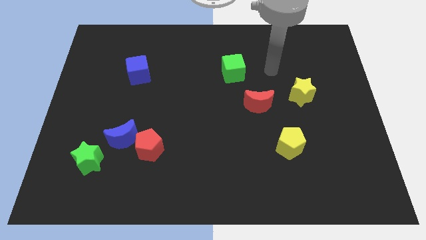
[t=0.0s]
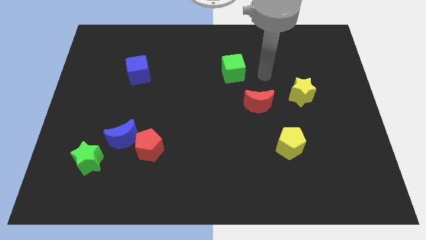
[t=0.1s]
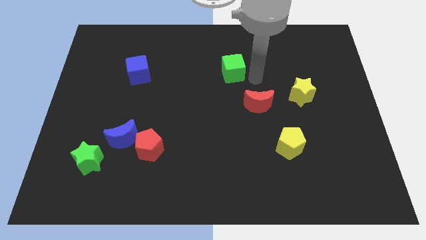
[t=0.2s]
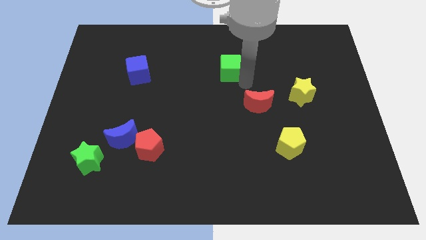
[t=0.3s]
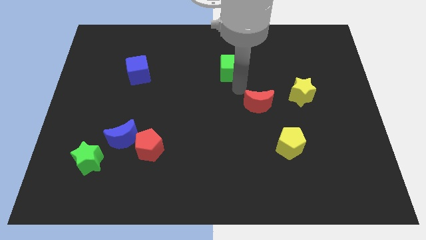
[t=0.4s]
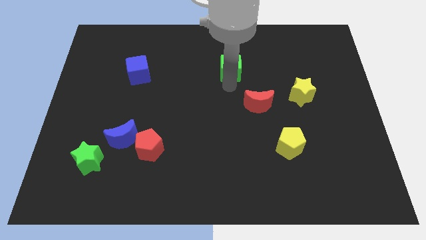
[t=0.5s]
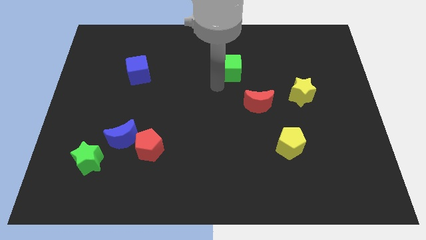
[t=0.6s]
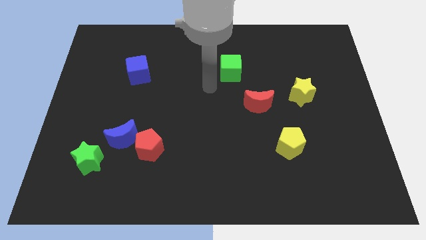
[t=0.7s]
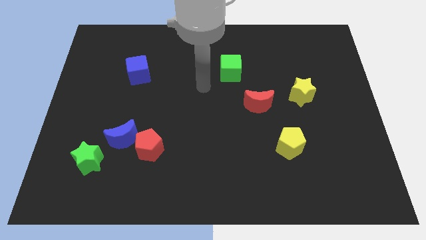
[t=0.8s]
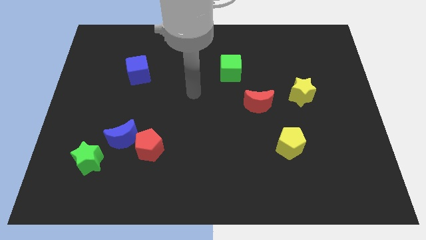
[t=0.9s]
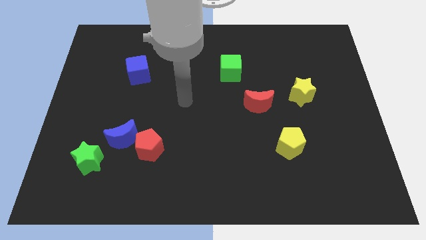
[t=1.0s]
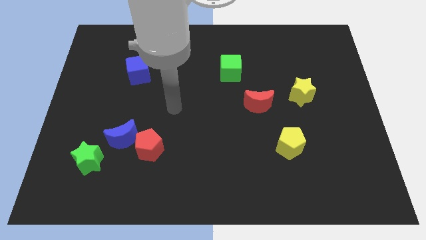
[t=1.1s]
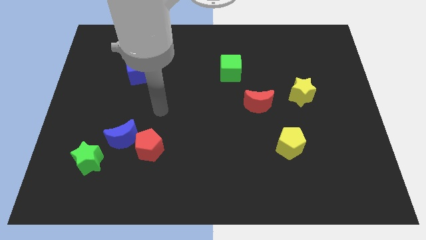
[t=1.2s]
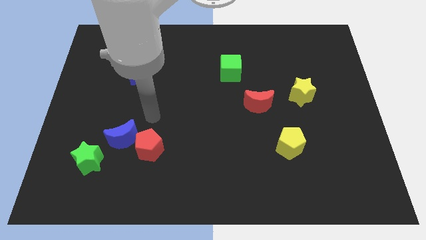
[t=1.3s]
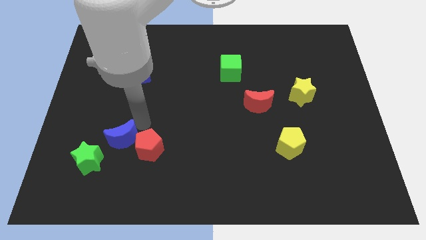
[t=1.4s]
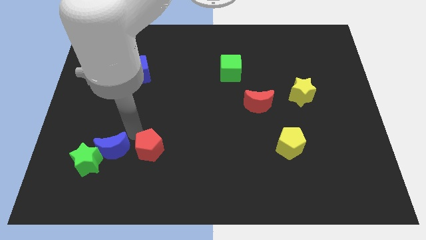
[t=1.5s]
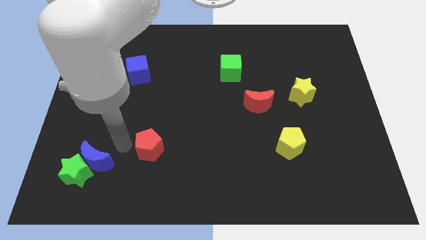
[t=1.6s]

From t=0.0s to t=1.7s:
pull the red pentagon apart from the blue moon

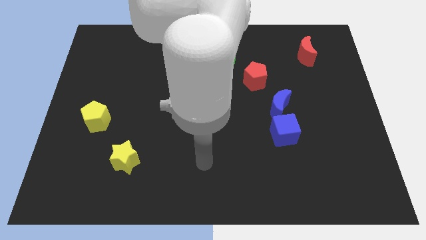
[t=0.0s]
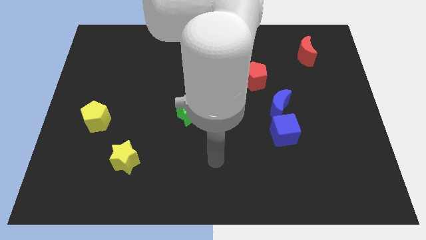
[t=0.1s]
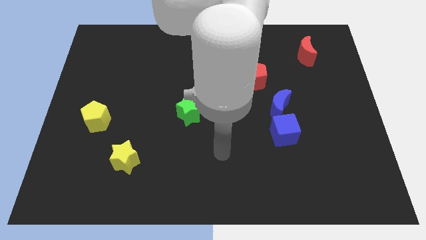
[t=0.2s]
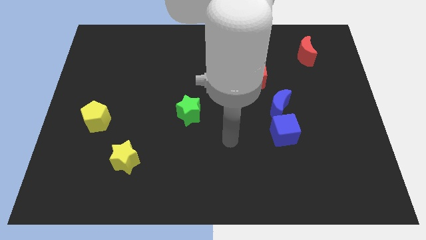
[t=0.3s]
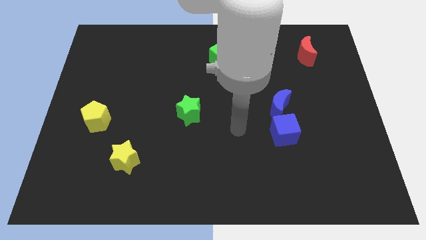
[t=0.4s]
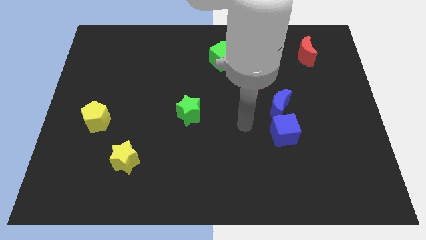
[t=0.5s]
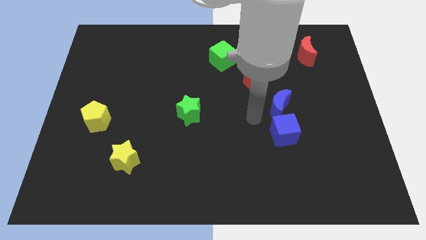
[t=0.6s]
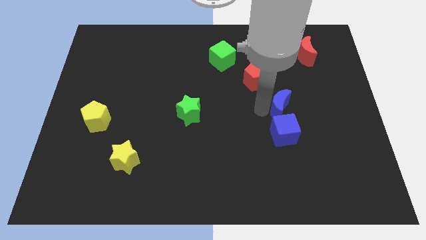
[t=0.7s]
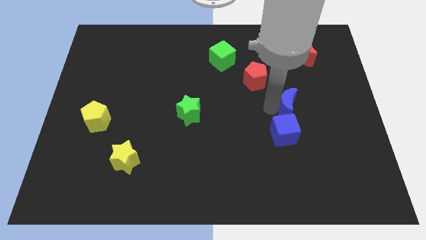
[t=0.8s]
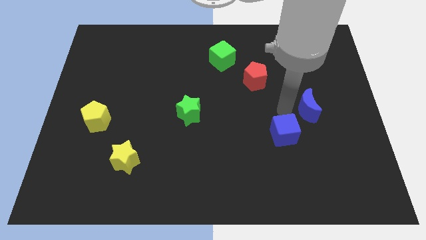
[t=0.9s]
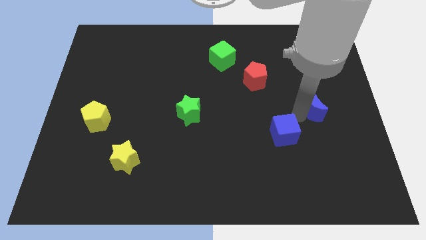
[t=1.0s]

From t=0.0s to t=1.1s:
pull the blue cube apart from the blue moon

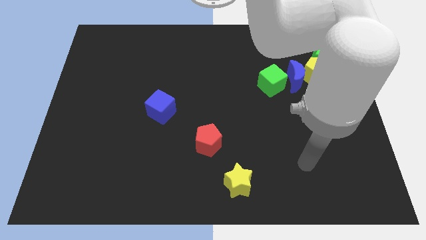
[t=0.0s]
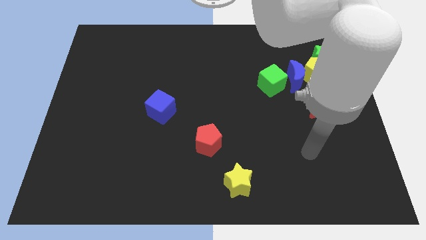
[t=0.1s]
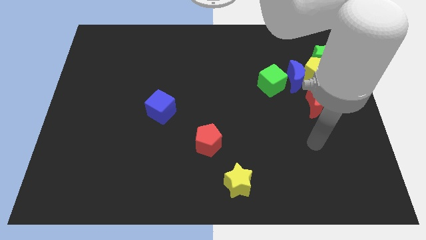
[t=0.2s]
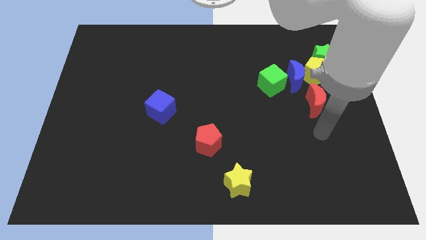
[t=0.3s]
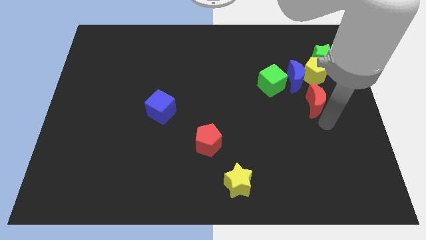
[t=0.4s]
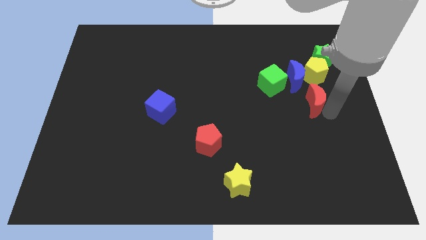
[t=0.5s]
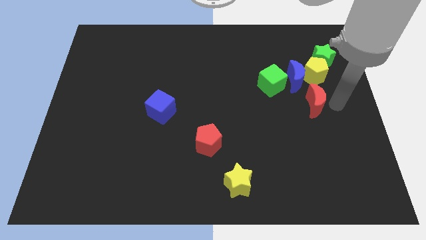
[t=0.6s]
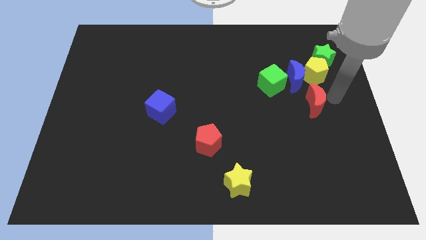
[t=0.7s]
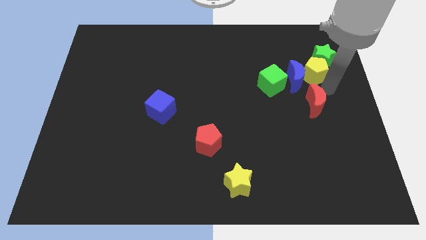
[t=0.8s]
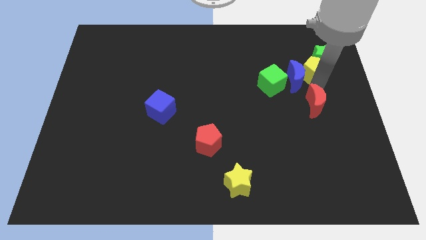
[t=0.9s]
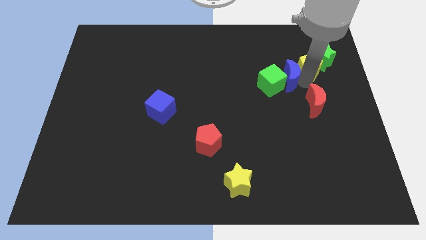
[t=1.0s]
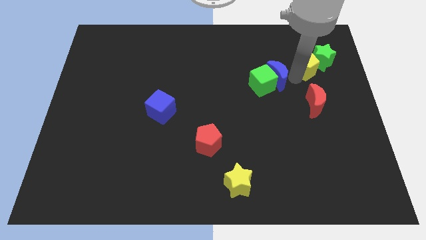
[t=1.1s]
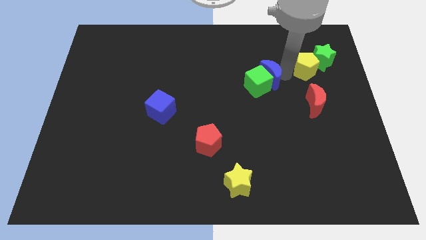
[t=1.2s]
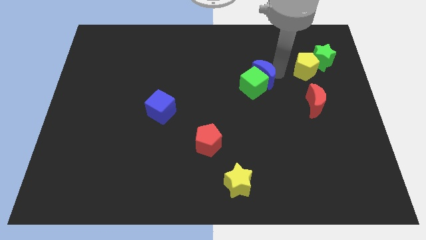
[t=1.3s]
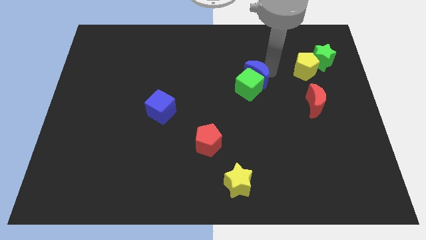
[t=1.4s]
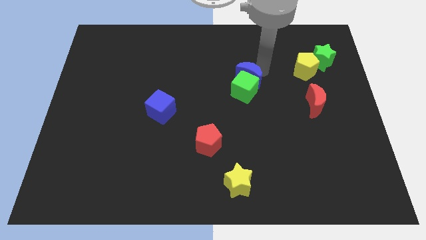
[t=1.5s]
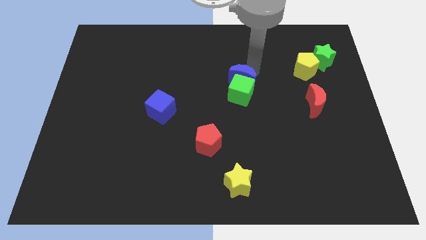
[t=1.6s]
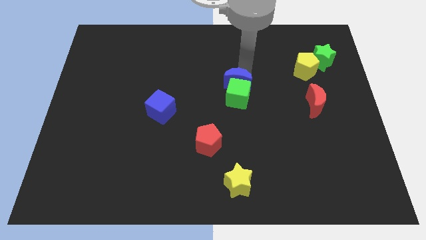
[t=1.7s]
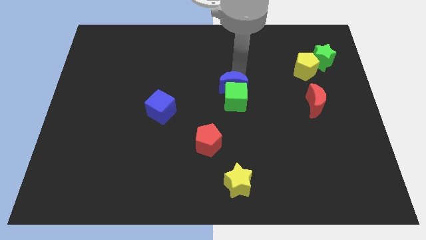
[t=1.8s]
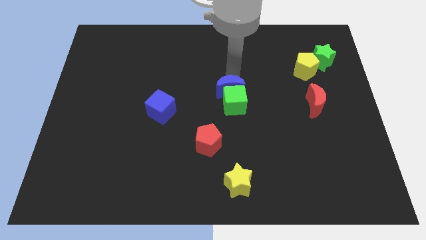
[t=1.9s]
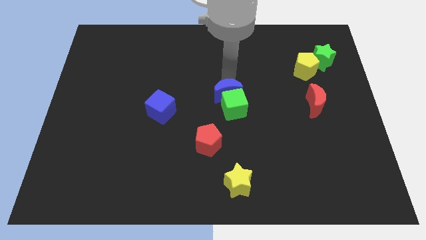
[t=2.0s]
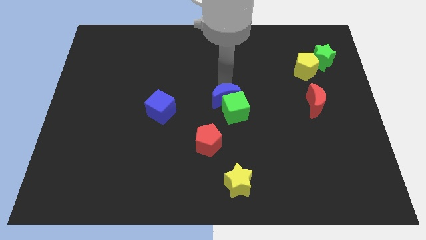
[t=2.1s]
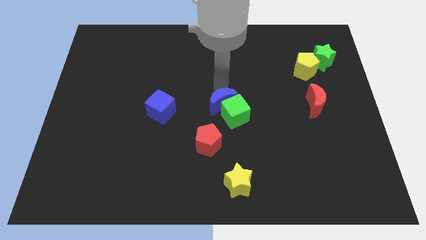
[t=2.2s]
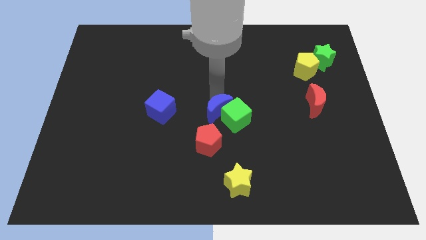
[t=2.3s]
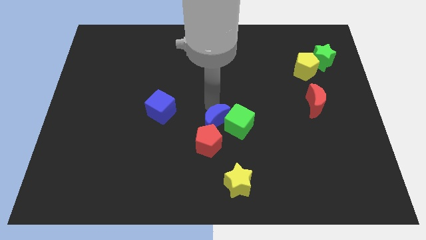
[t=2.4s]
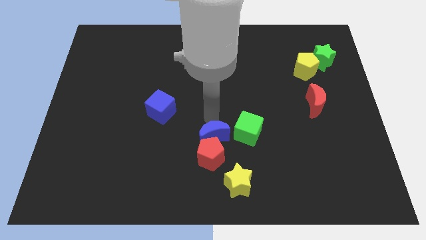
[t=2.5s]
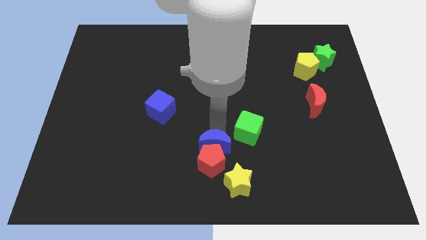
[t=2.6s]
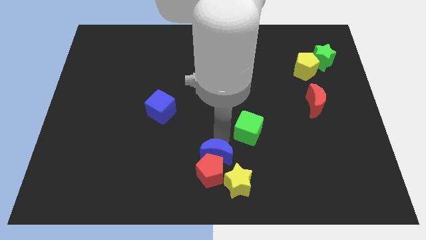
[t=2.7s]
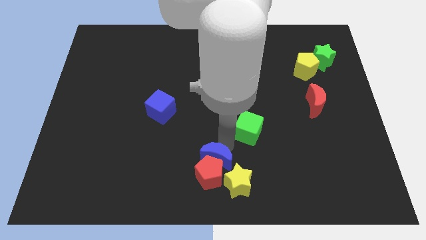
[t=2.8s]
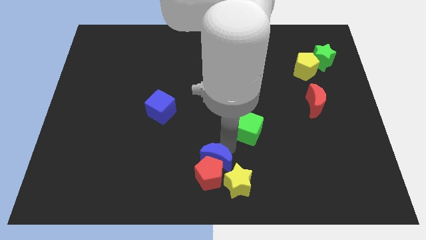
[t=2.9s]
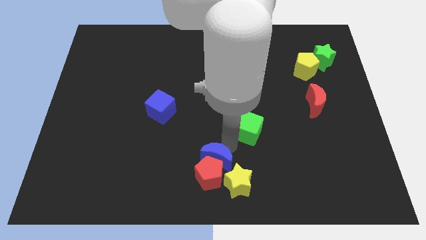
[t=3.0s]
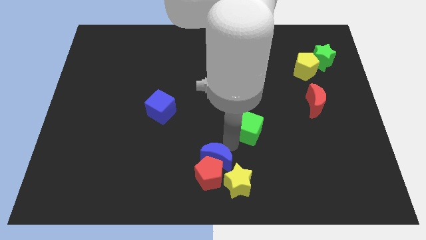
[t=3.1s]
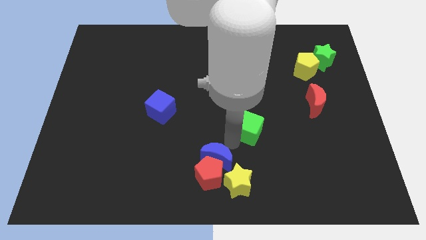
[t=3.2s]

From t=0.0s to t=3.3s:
move the green cube away from the blue moon

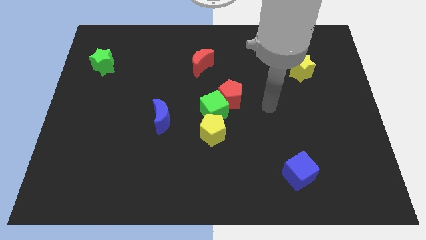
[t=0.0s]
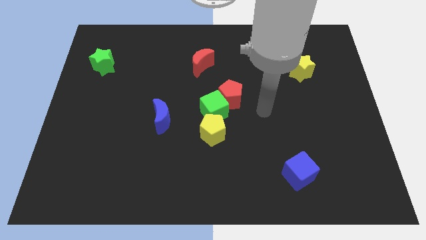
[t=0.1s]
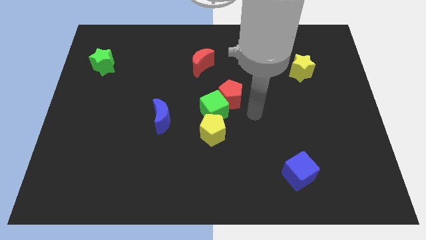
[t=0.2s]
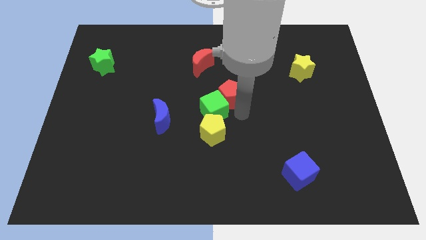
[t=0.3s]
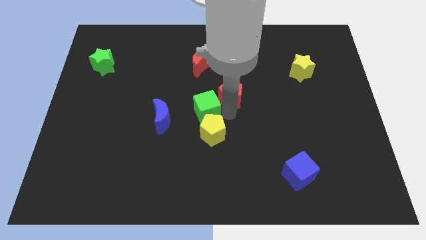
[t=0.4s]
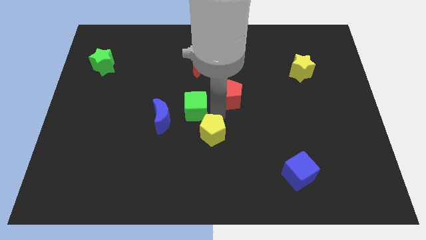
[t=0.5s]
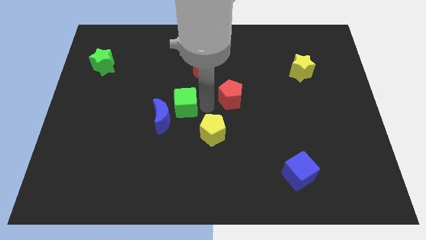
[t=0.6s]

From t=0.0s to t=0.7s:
move the red pentagon away from the green cube

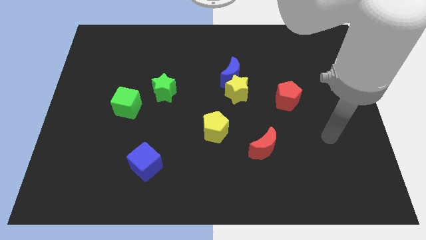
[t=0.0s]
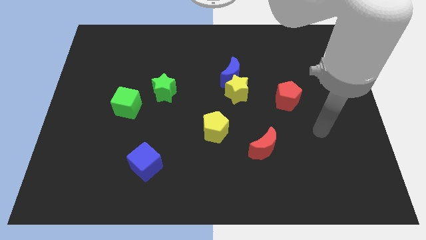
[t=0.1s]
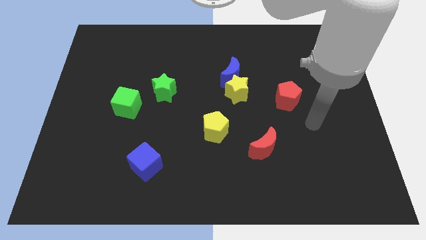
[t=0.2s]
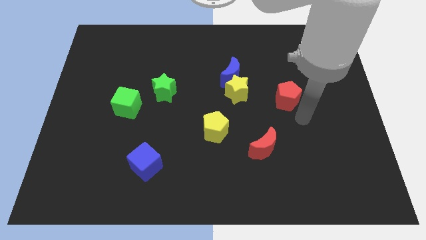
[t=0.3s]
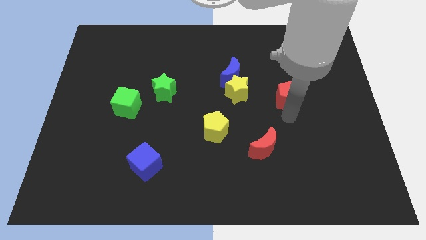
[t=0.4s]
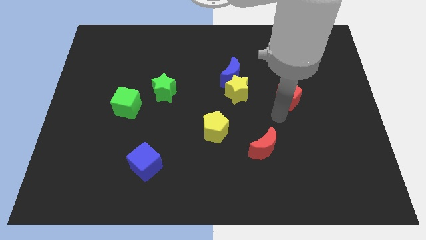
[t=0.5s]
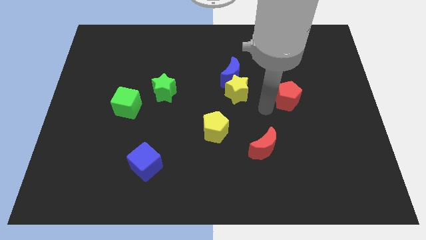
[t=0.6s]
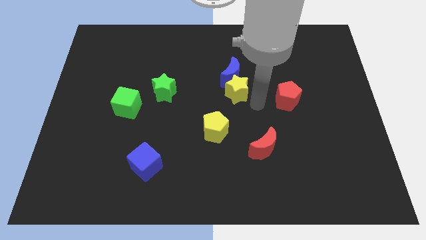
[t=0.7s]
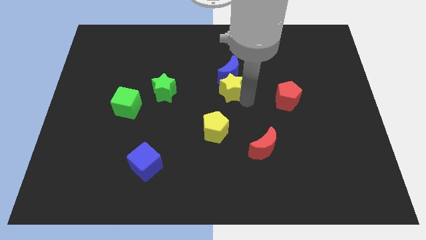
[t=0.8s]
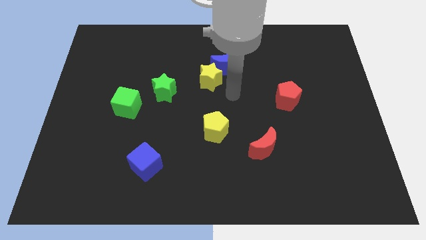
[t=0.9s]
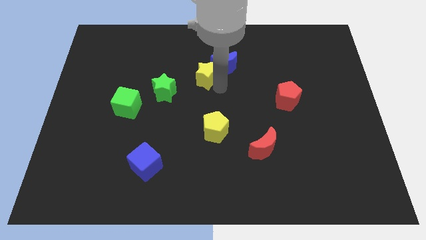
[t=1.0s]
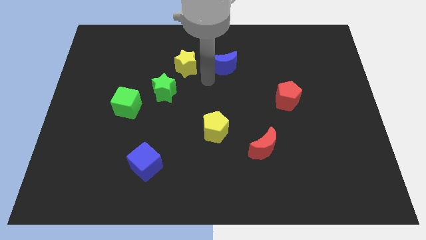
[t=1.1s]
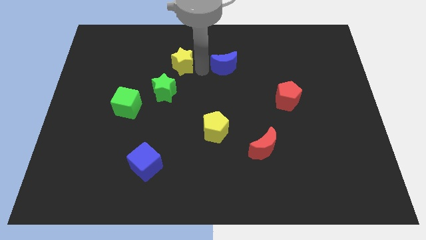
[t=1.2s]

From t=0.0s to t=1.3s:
move the blue moon away from the yellow star

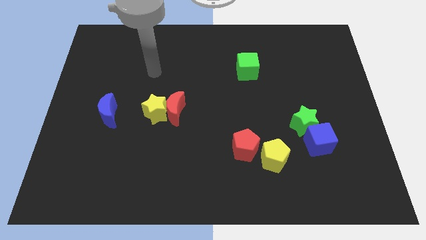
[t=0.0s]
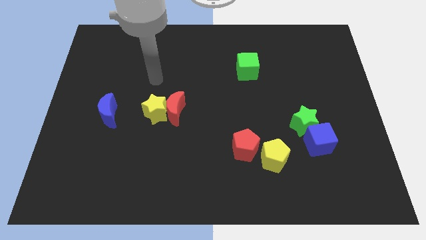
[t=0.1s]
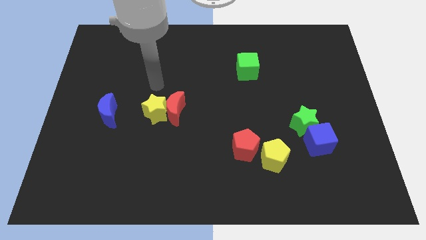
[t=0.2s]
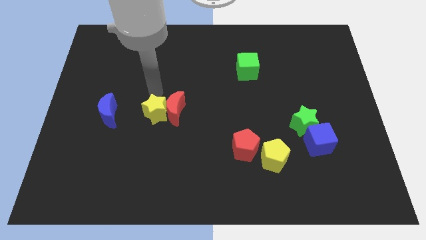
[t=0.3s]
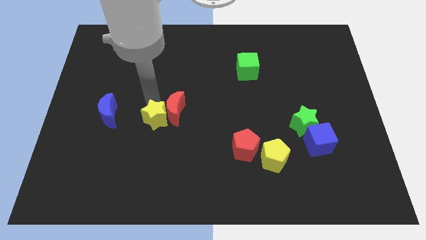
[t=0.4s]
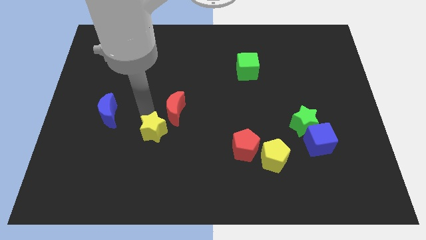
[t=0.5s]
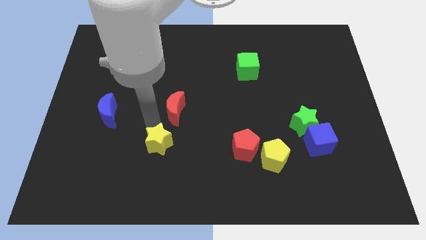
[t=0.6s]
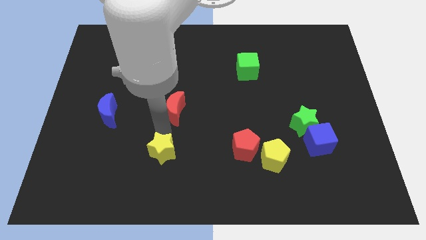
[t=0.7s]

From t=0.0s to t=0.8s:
pull the red moon apart from the yellow star

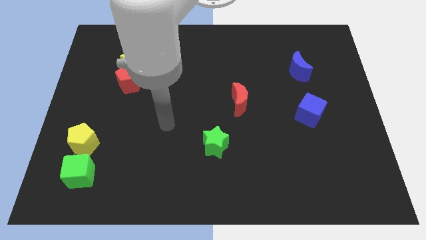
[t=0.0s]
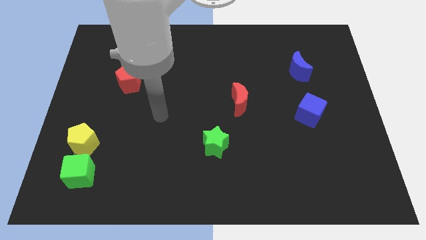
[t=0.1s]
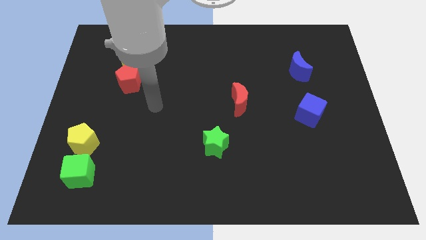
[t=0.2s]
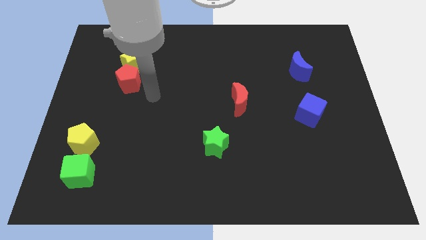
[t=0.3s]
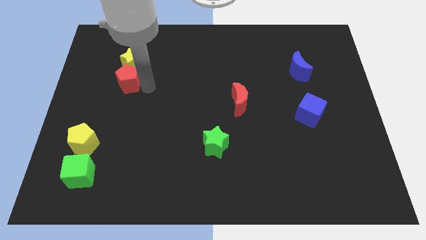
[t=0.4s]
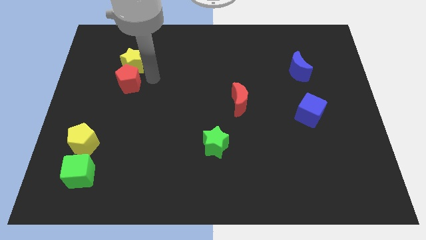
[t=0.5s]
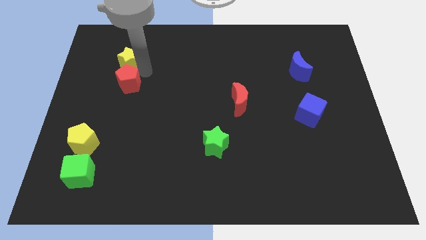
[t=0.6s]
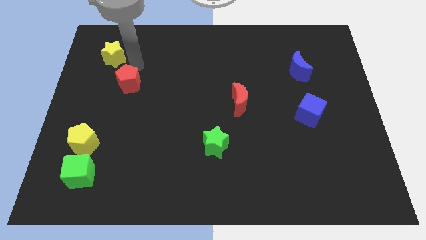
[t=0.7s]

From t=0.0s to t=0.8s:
move the red pentagon away from the yellow star
